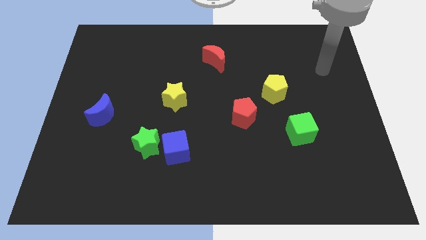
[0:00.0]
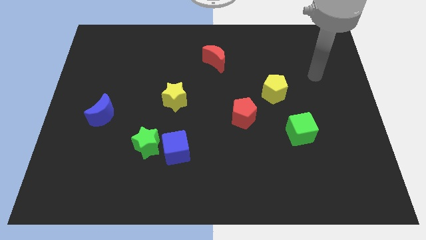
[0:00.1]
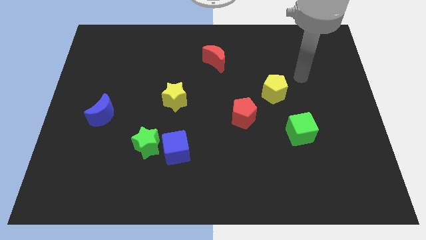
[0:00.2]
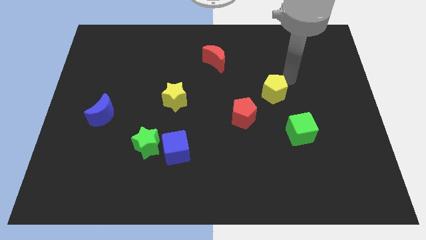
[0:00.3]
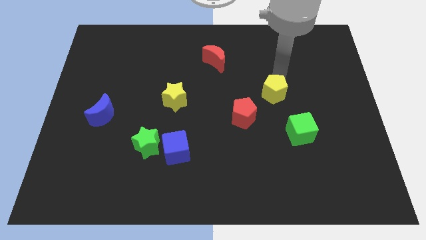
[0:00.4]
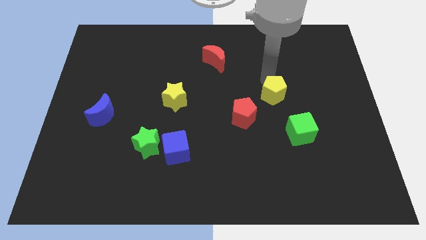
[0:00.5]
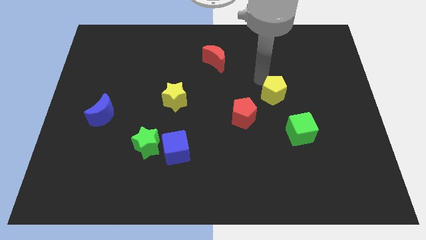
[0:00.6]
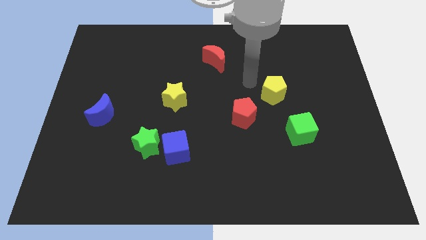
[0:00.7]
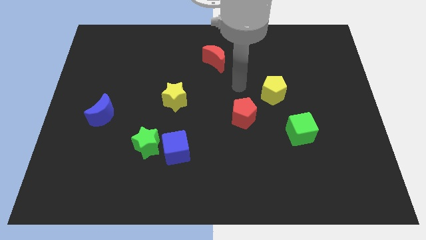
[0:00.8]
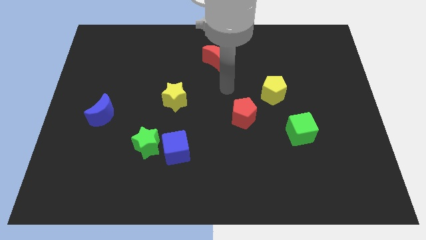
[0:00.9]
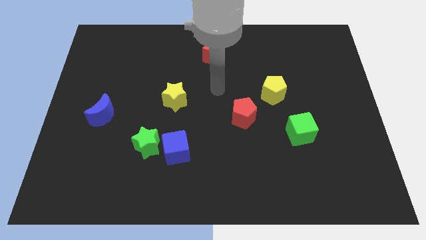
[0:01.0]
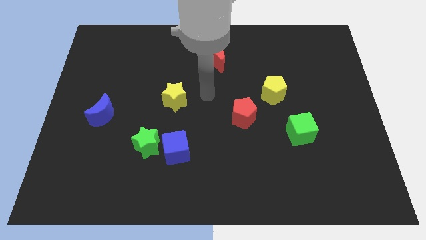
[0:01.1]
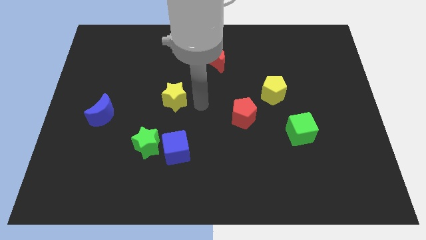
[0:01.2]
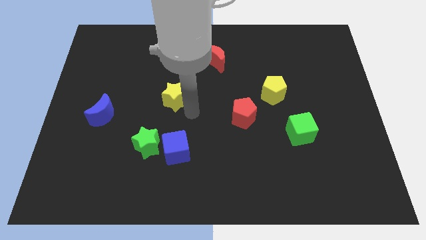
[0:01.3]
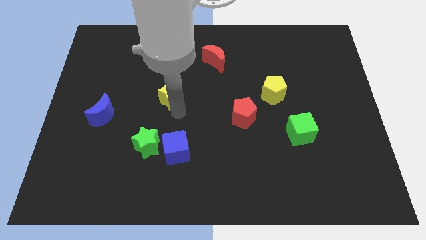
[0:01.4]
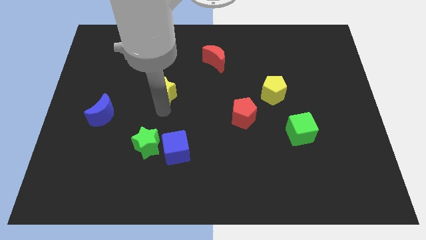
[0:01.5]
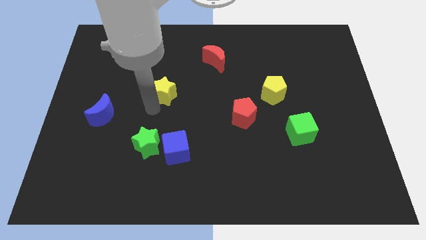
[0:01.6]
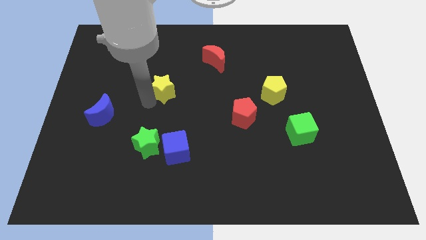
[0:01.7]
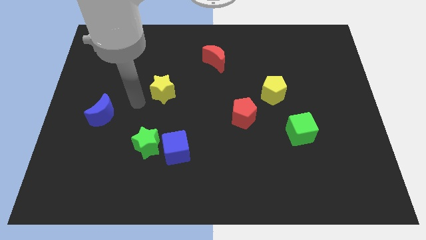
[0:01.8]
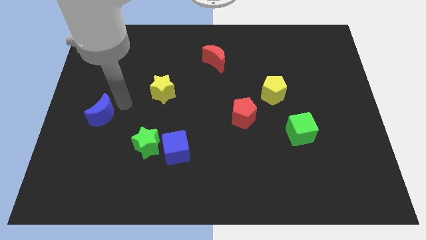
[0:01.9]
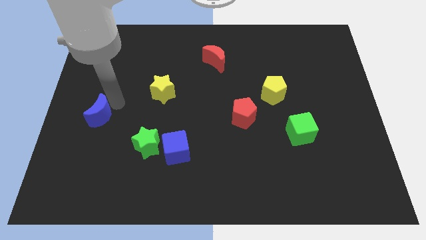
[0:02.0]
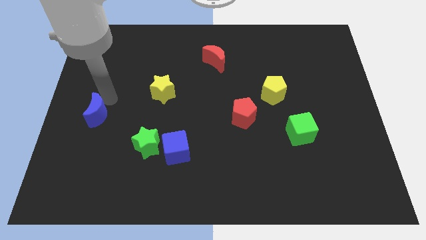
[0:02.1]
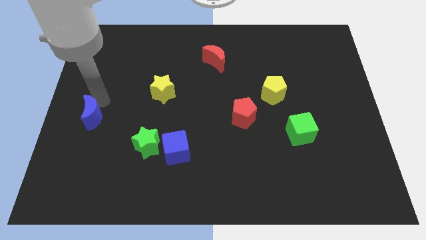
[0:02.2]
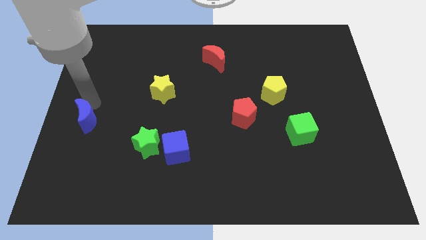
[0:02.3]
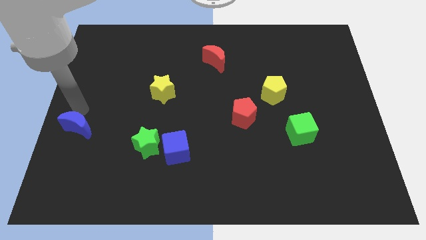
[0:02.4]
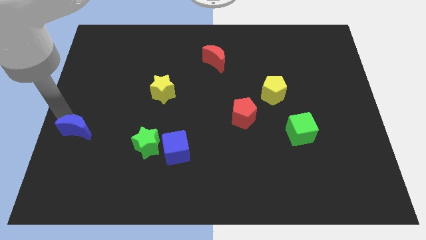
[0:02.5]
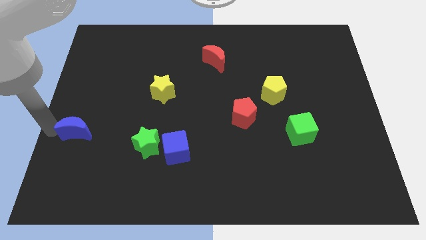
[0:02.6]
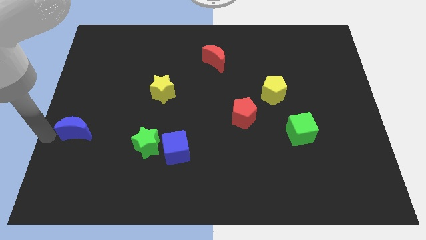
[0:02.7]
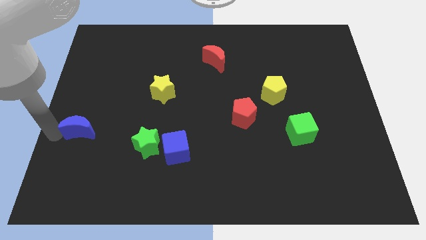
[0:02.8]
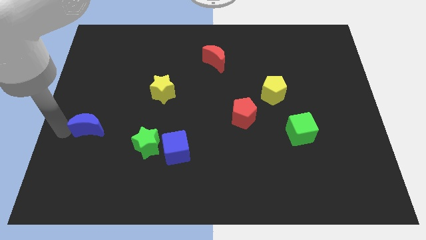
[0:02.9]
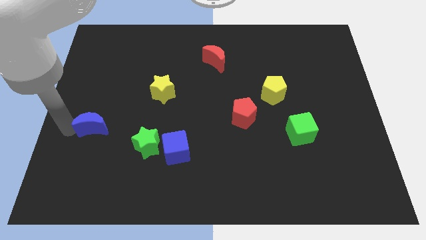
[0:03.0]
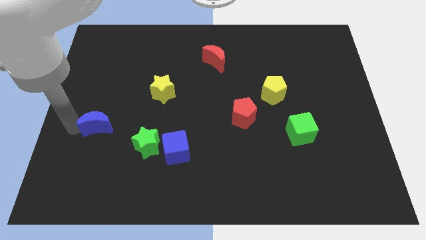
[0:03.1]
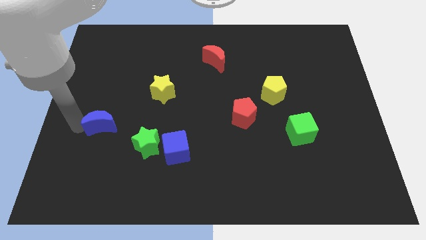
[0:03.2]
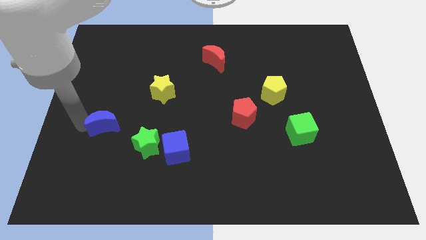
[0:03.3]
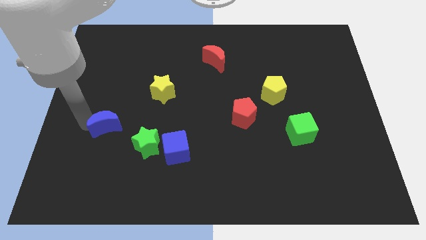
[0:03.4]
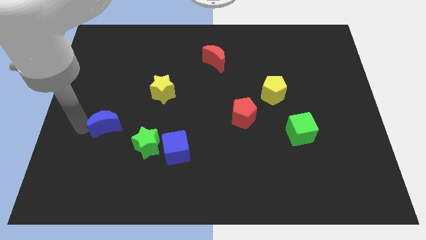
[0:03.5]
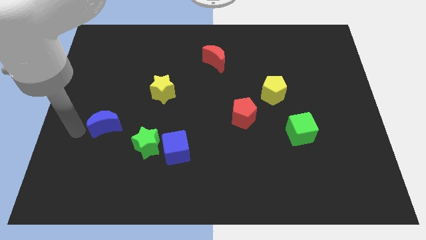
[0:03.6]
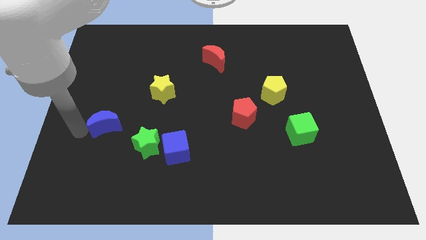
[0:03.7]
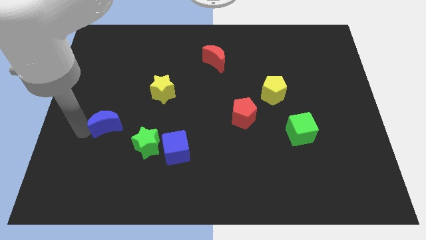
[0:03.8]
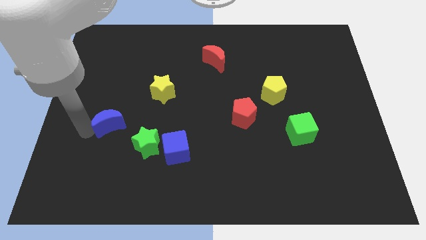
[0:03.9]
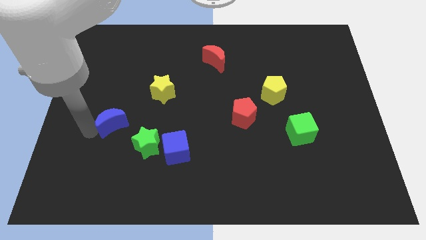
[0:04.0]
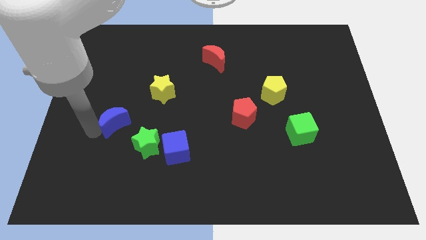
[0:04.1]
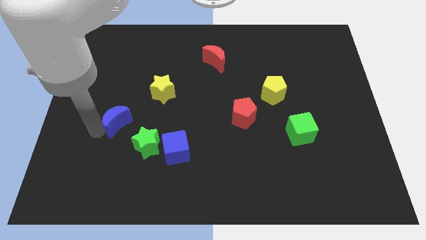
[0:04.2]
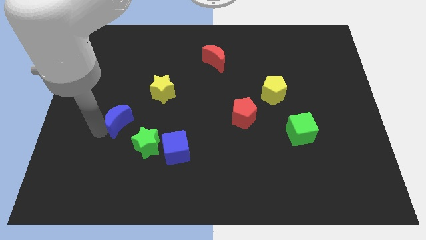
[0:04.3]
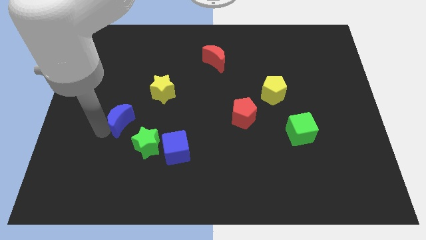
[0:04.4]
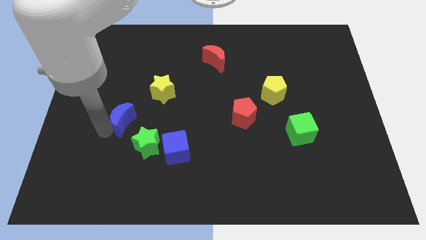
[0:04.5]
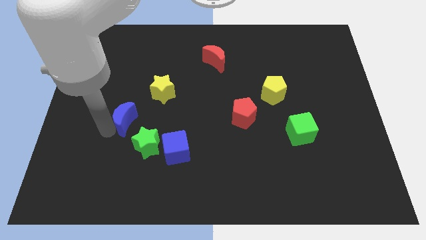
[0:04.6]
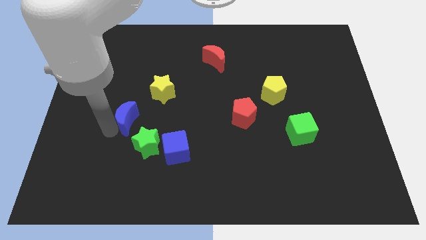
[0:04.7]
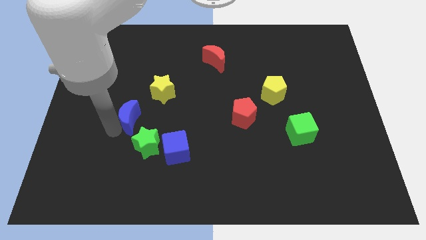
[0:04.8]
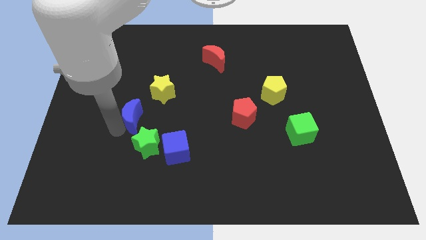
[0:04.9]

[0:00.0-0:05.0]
slightly move the blue moon to the right

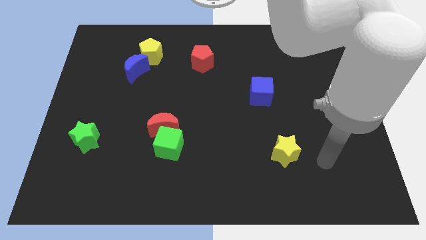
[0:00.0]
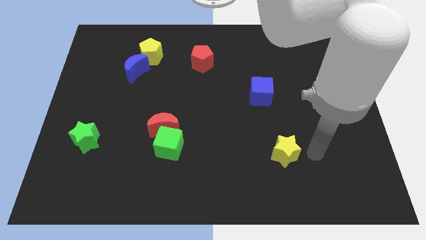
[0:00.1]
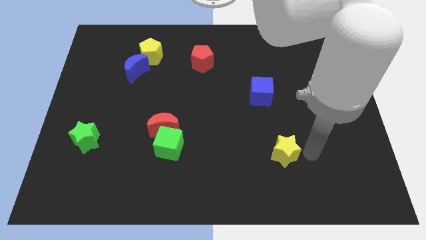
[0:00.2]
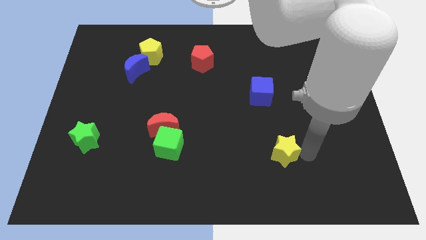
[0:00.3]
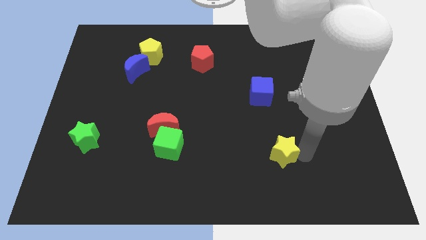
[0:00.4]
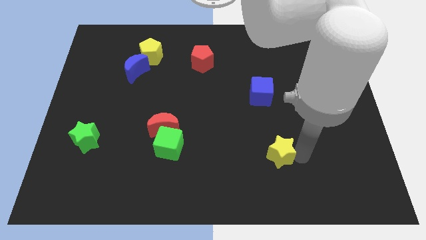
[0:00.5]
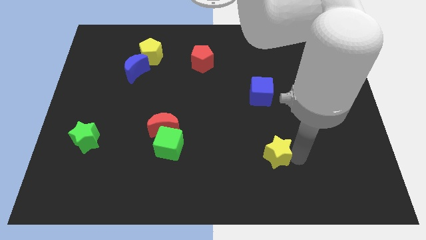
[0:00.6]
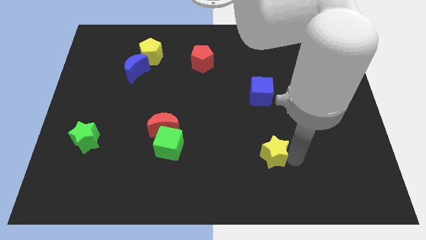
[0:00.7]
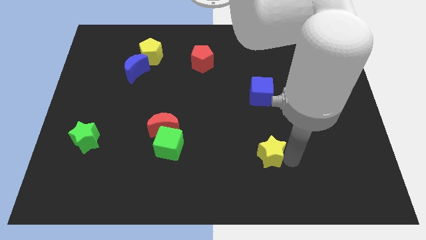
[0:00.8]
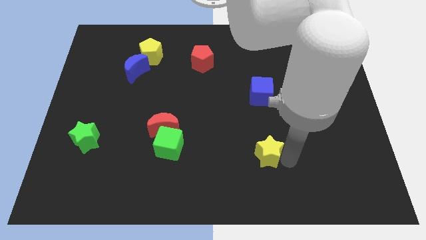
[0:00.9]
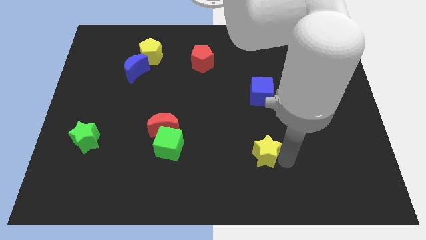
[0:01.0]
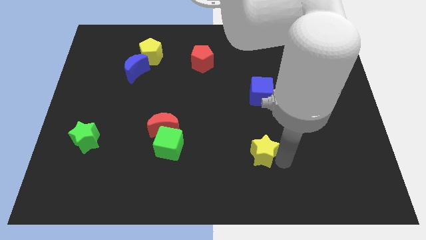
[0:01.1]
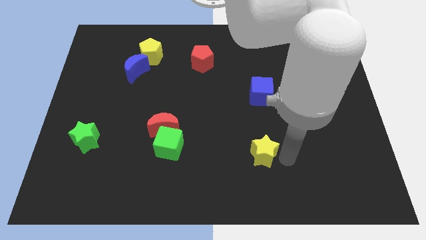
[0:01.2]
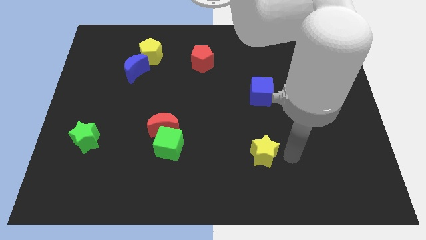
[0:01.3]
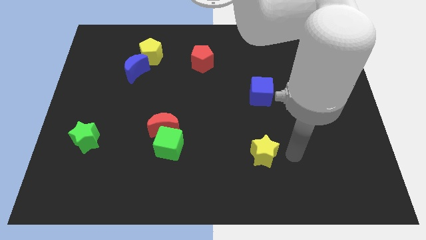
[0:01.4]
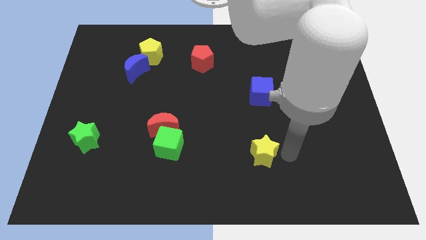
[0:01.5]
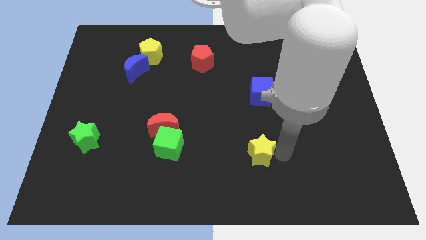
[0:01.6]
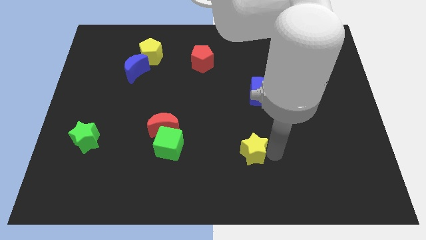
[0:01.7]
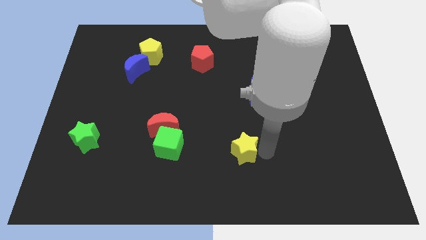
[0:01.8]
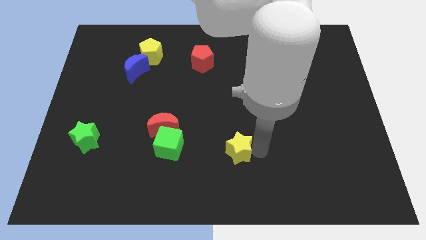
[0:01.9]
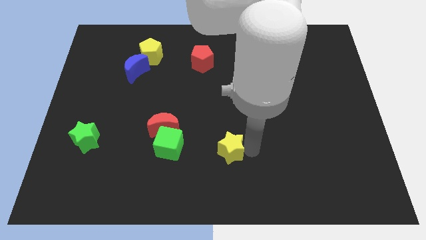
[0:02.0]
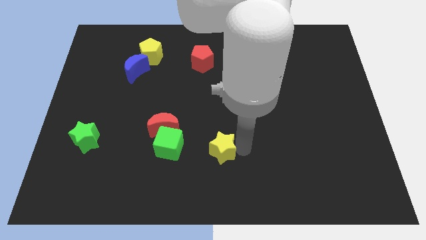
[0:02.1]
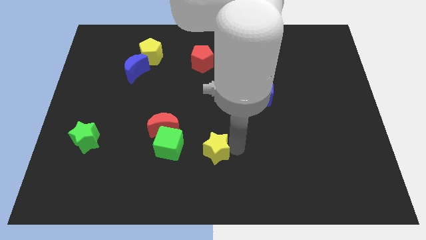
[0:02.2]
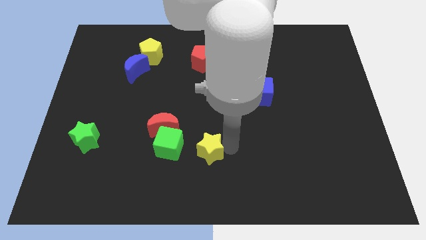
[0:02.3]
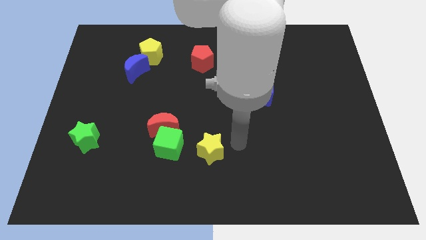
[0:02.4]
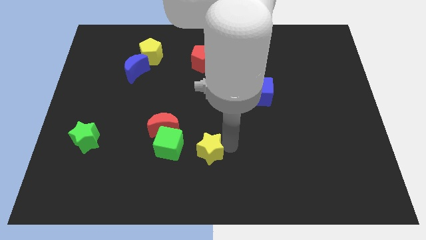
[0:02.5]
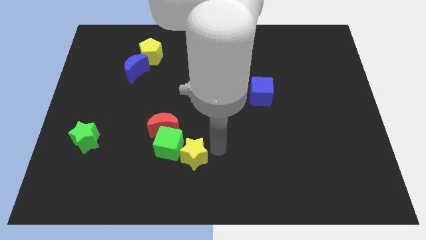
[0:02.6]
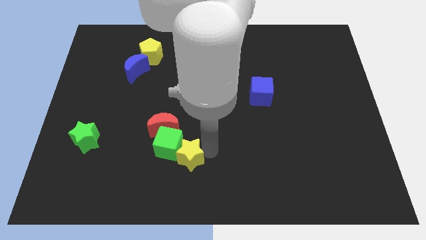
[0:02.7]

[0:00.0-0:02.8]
move the yellow star to the left

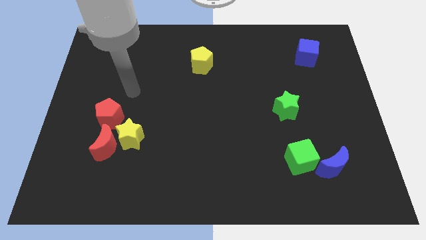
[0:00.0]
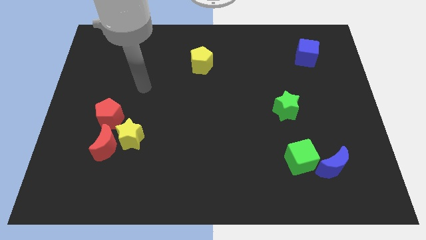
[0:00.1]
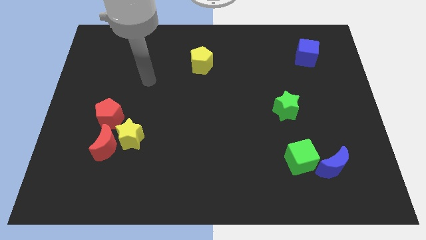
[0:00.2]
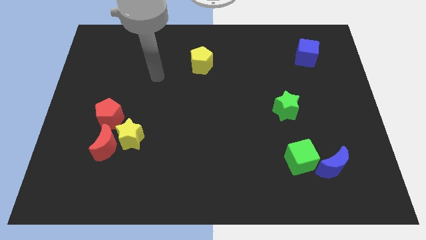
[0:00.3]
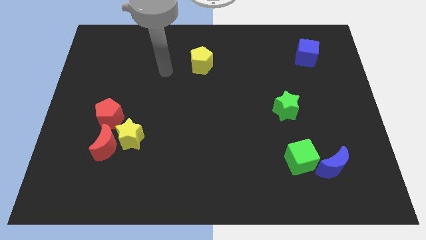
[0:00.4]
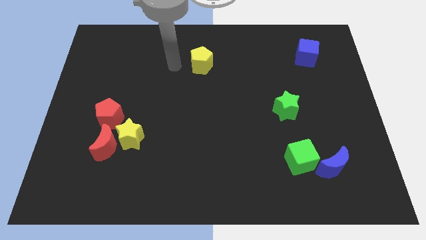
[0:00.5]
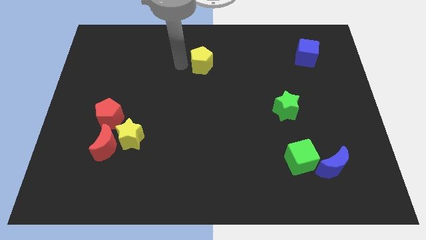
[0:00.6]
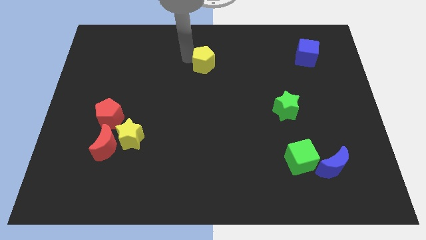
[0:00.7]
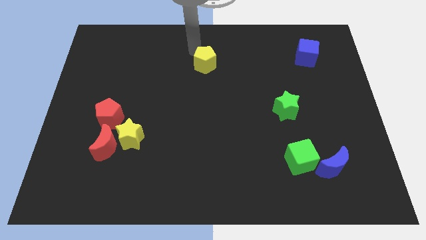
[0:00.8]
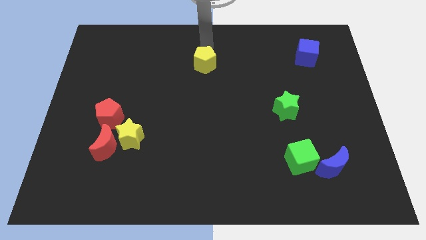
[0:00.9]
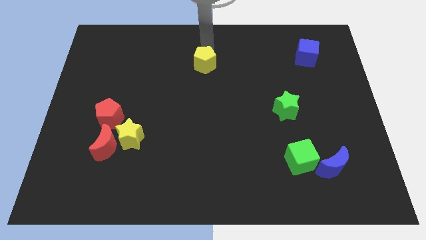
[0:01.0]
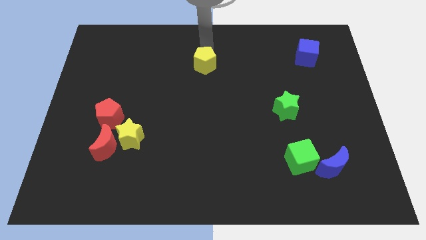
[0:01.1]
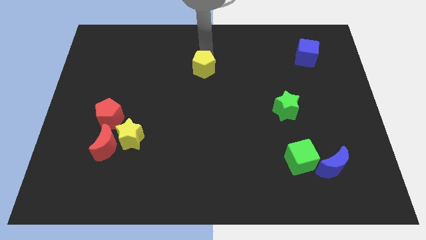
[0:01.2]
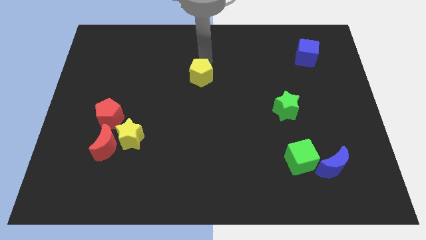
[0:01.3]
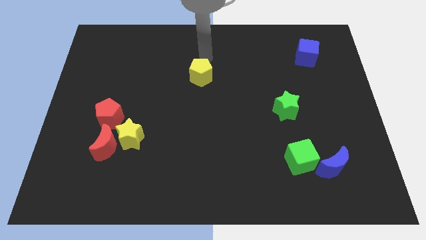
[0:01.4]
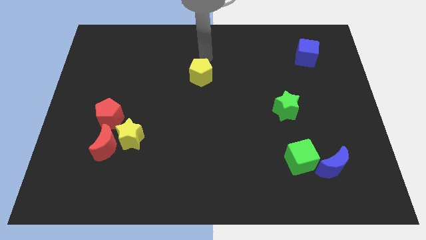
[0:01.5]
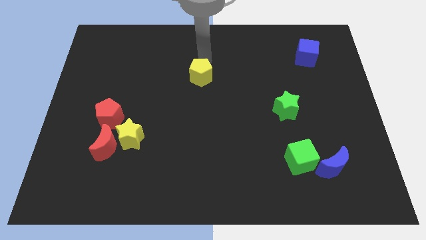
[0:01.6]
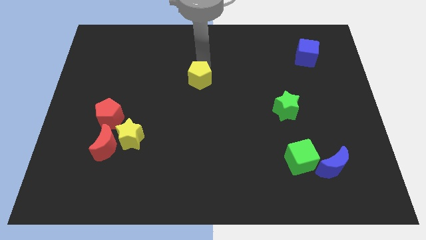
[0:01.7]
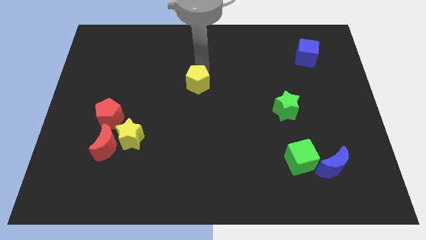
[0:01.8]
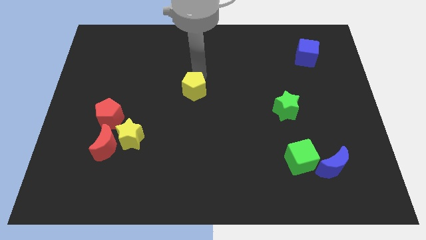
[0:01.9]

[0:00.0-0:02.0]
slightly push the yellow pentagon downwards
